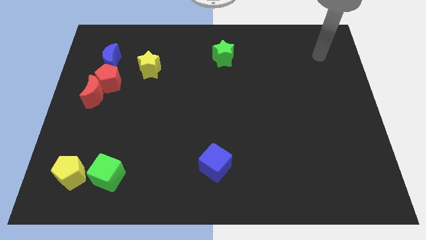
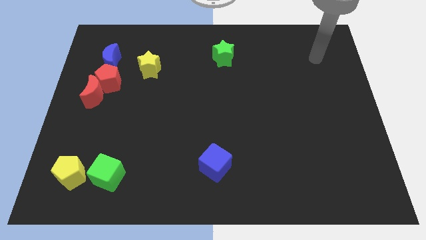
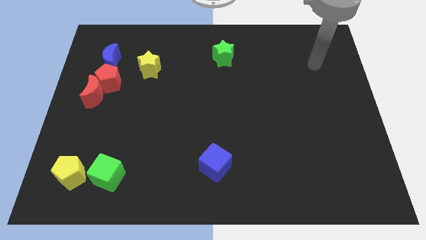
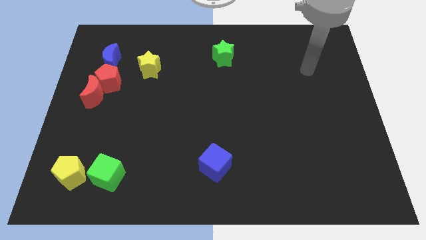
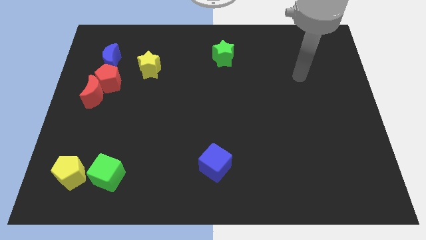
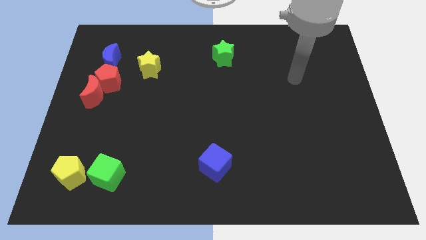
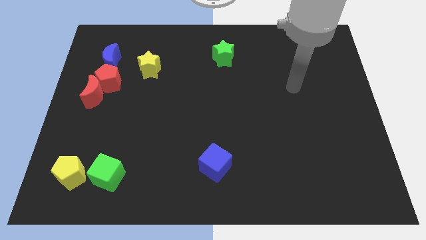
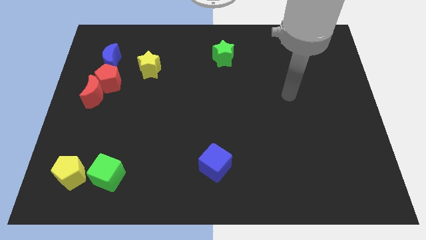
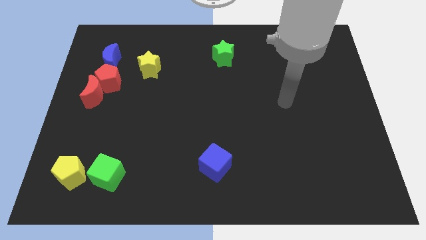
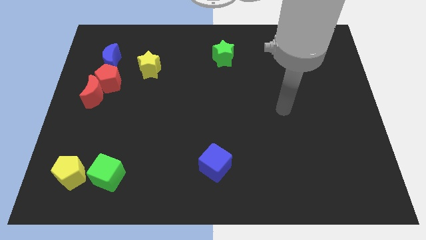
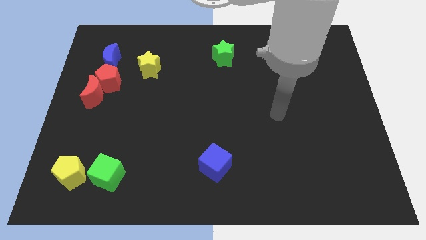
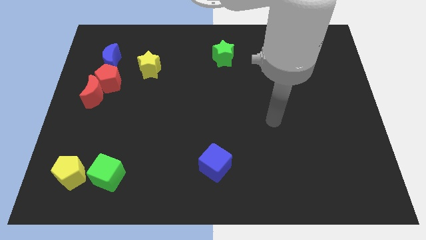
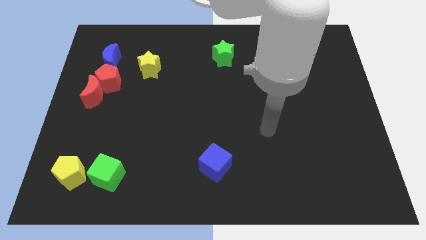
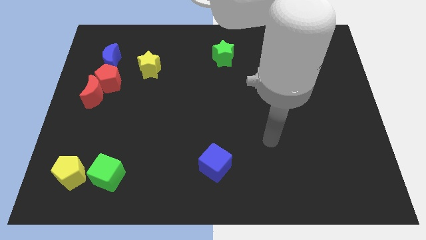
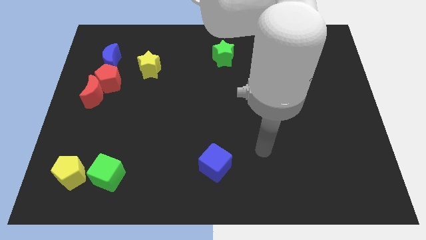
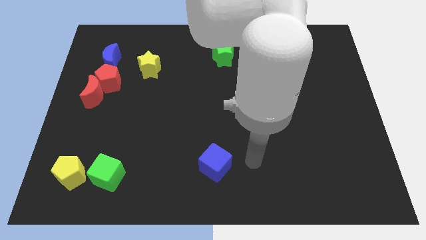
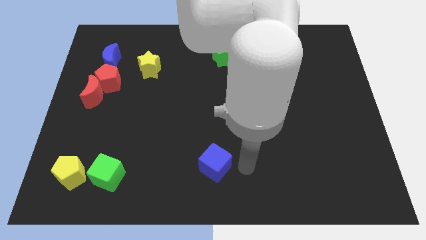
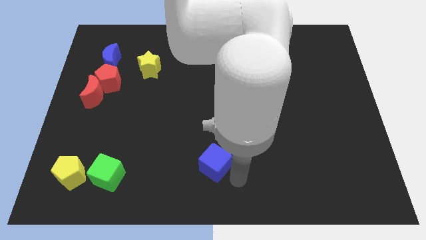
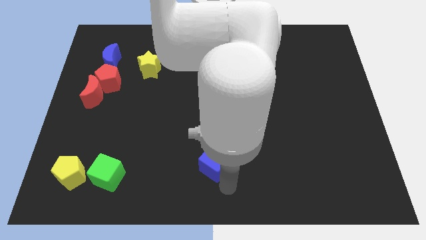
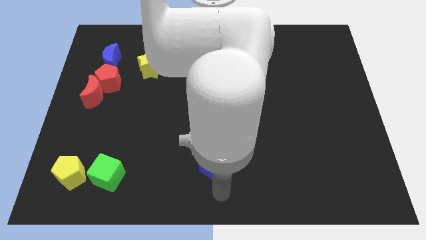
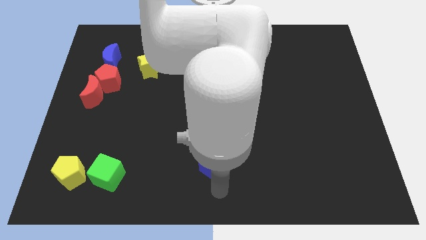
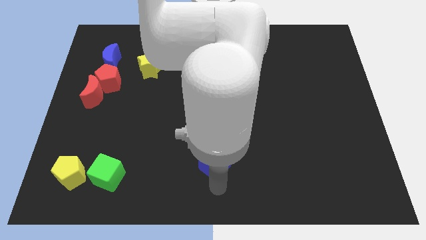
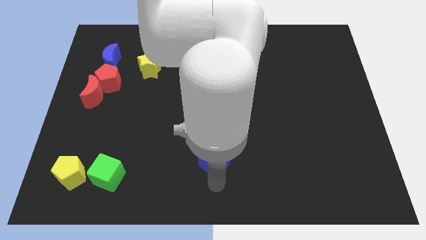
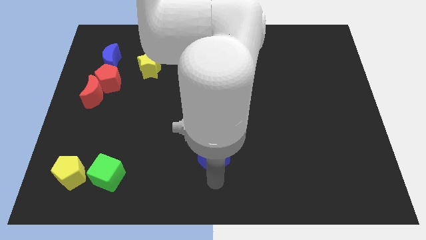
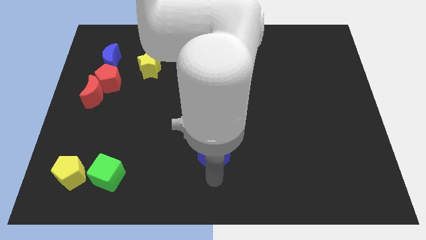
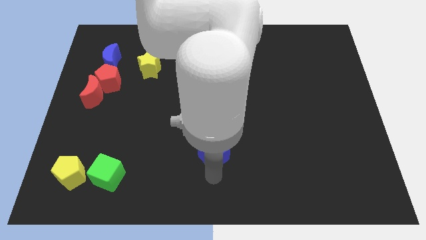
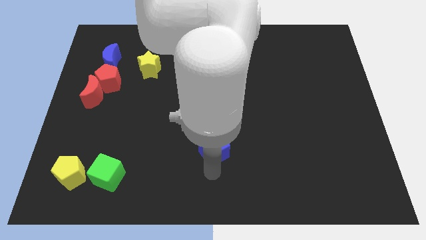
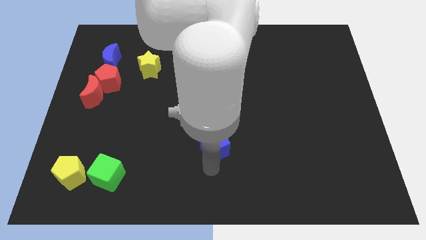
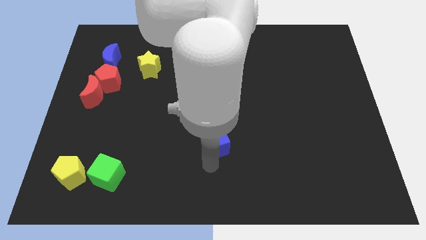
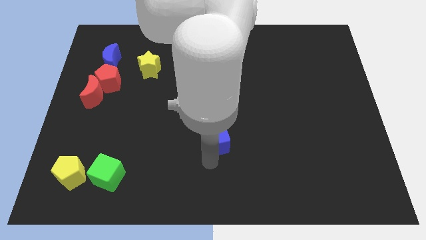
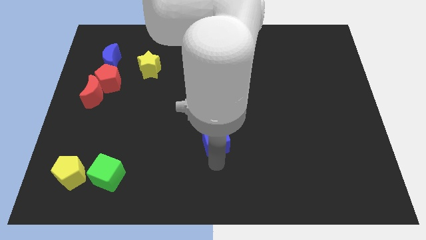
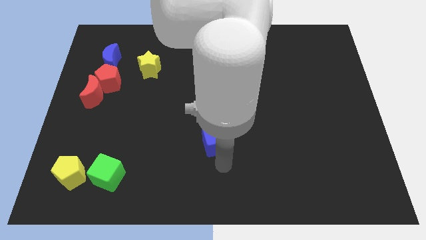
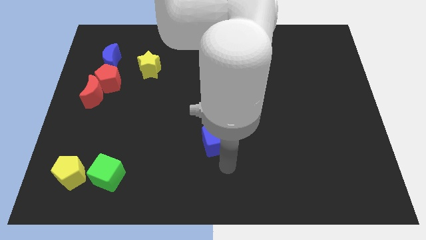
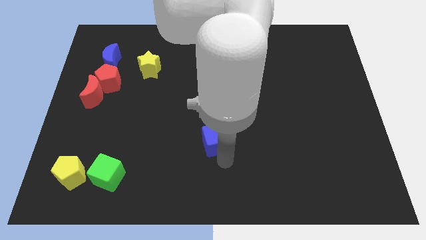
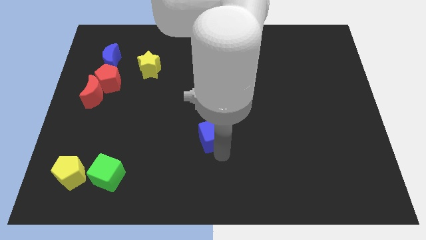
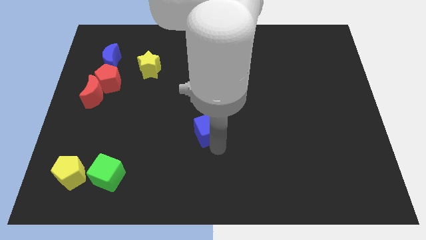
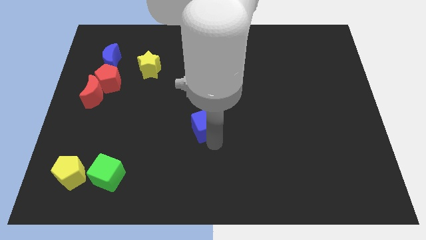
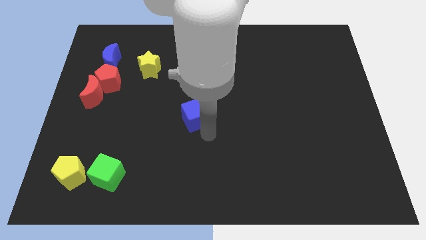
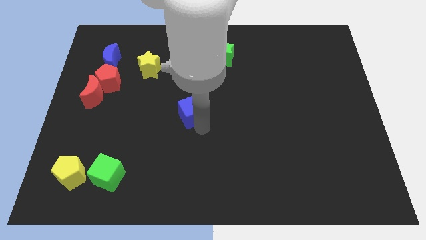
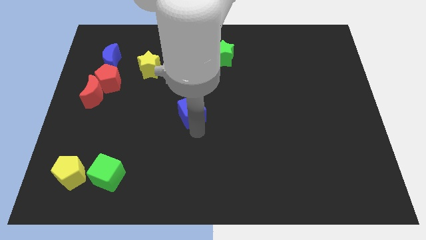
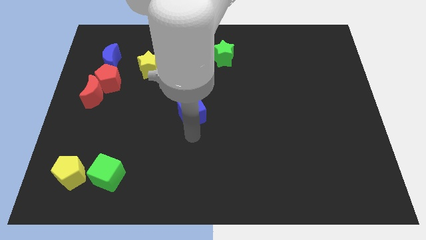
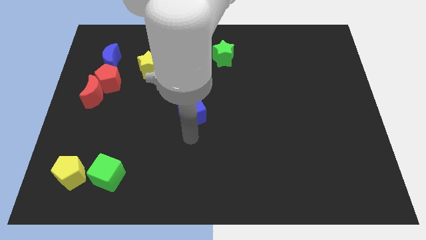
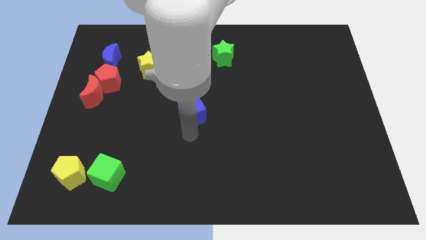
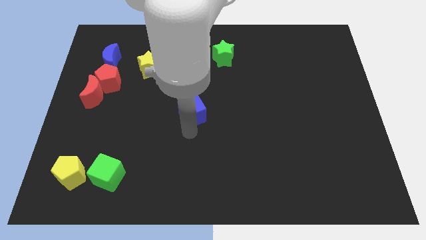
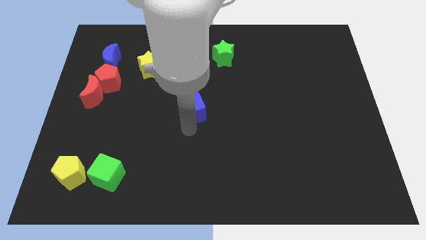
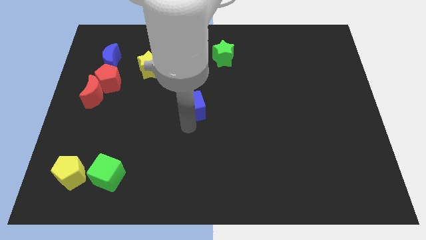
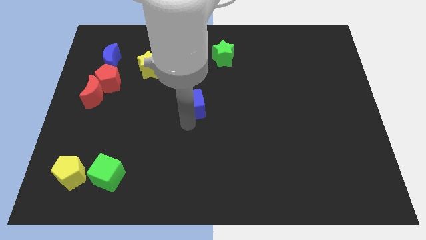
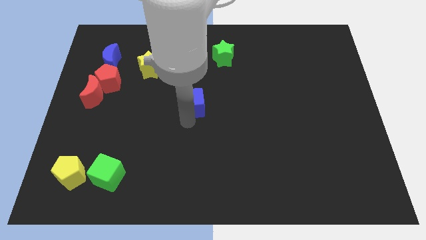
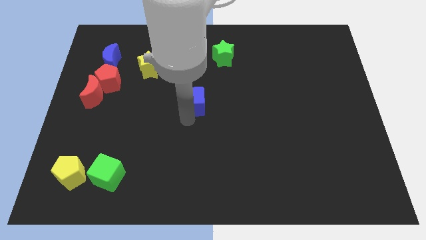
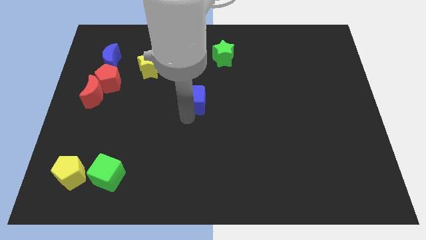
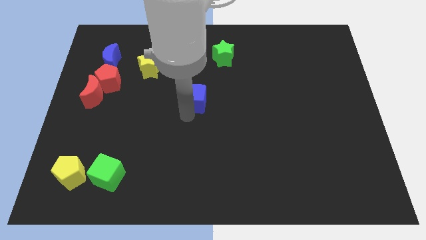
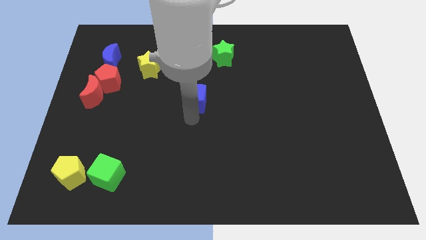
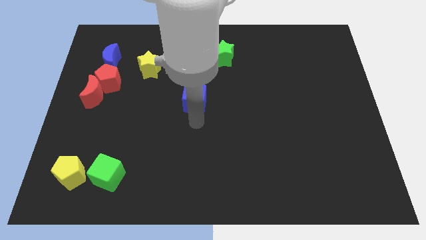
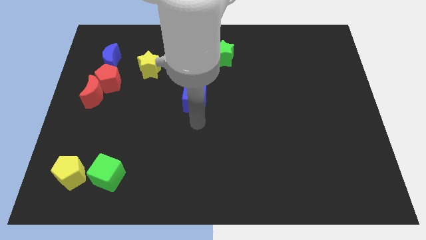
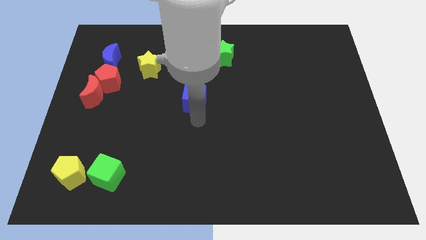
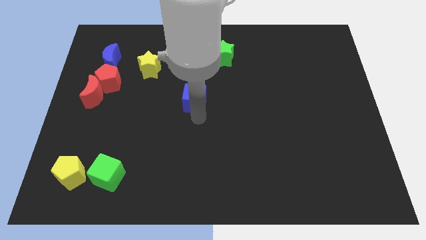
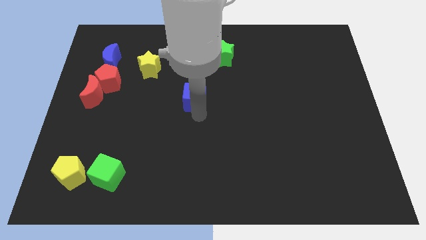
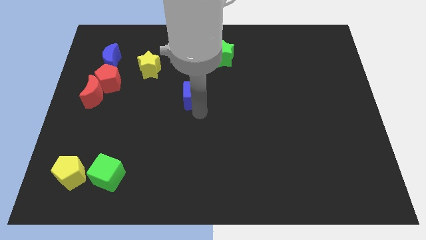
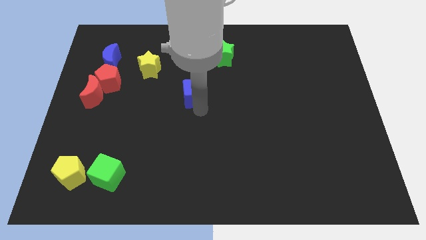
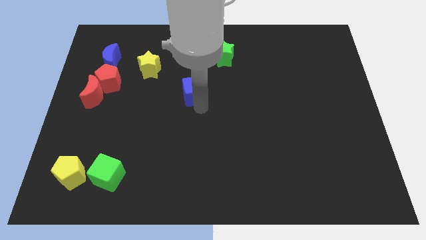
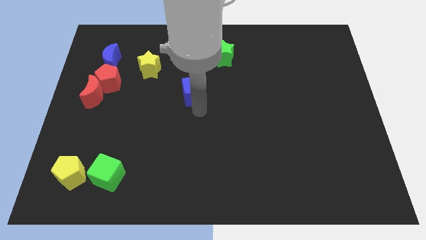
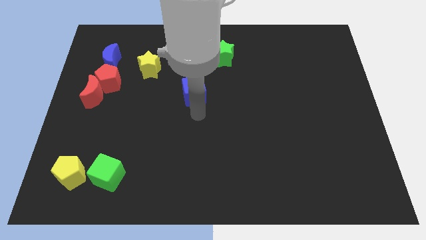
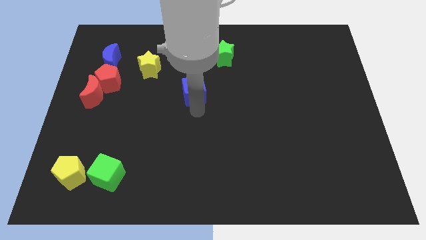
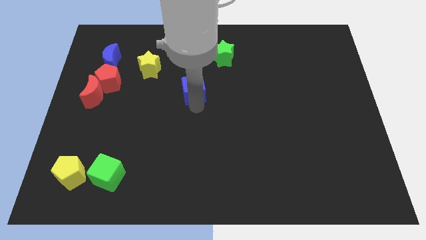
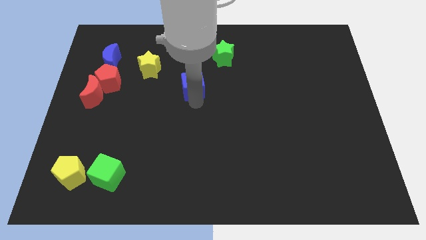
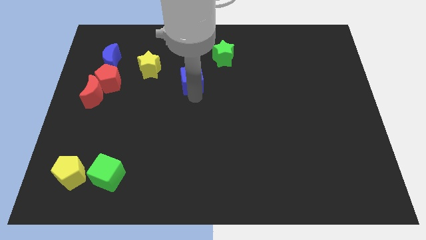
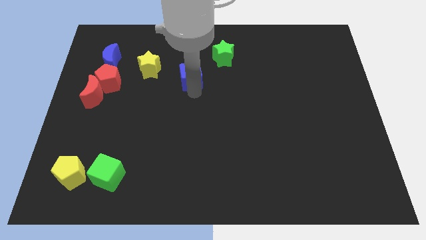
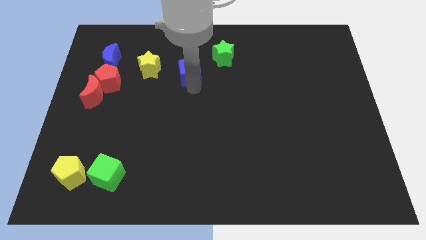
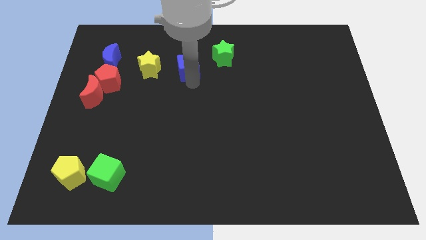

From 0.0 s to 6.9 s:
push the blue cube to the left side of the green star
